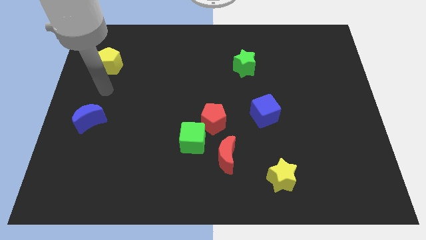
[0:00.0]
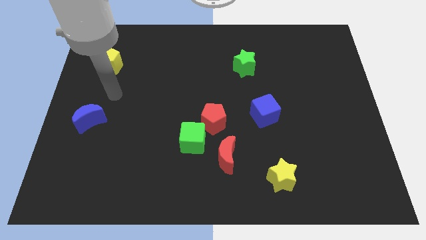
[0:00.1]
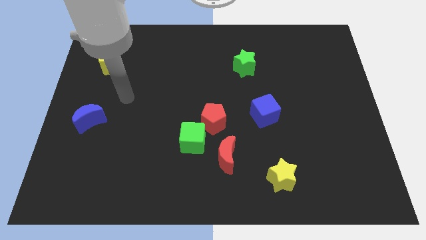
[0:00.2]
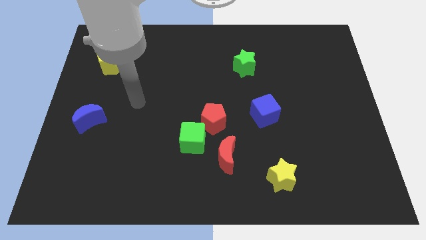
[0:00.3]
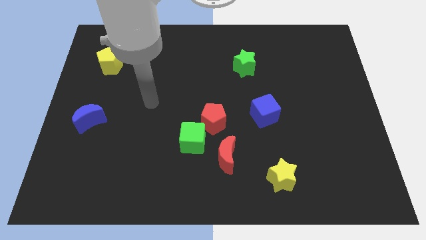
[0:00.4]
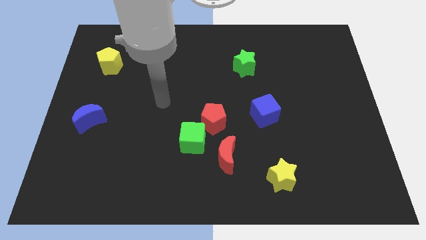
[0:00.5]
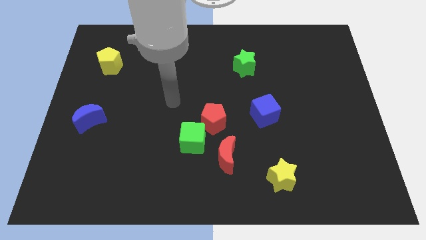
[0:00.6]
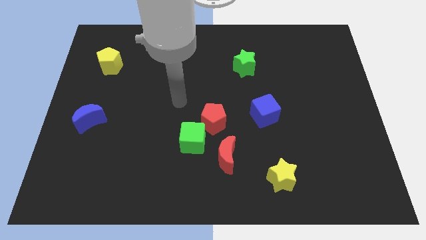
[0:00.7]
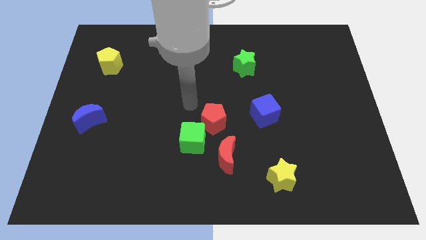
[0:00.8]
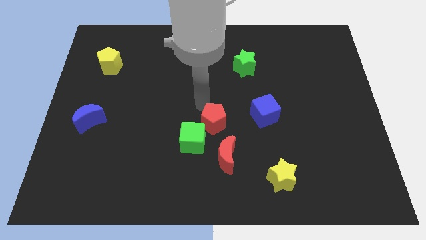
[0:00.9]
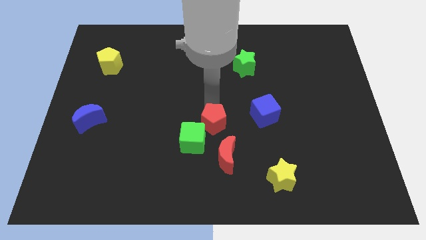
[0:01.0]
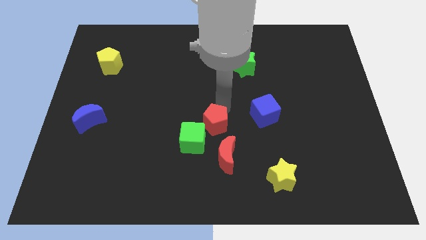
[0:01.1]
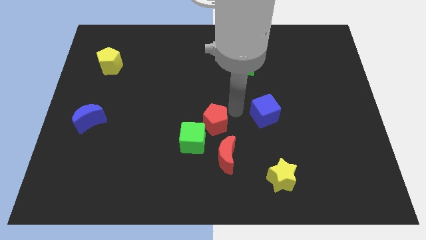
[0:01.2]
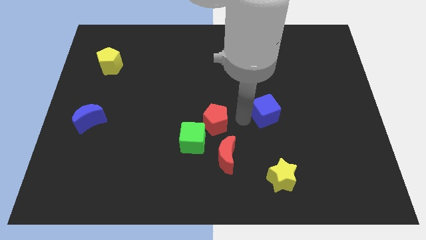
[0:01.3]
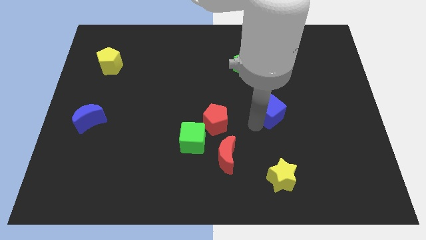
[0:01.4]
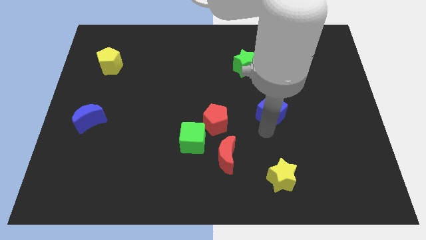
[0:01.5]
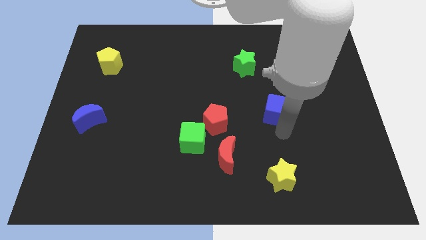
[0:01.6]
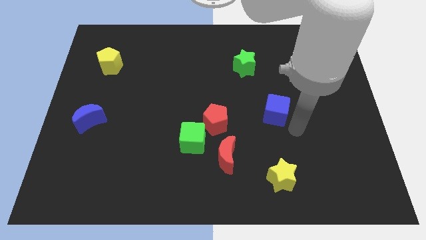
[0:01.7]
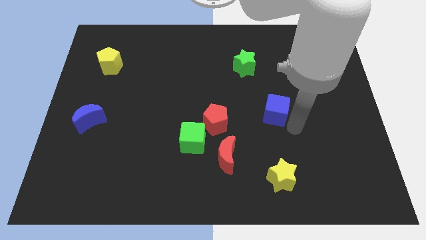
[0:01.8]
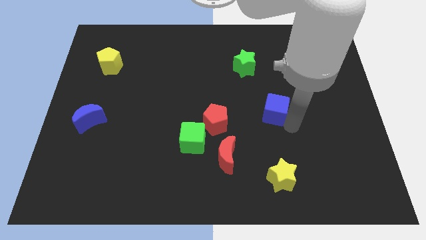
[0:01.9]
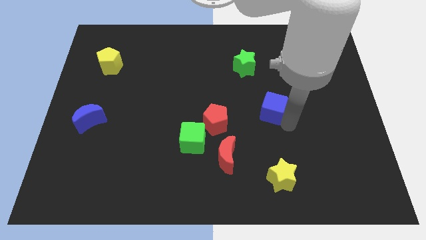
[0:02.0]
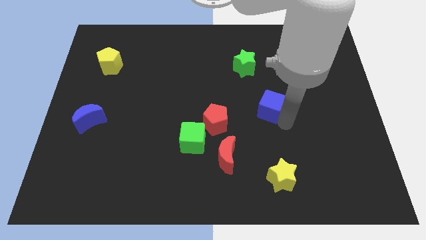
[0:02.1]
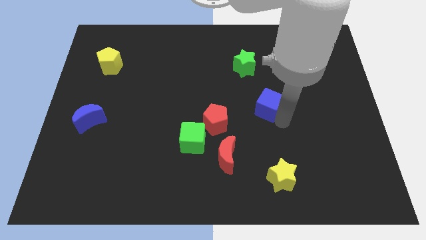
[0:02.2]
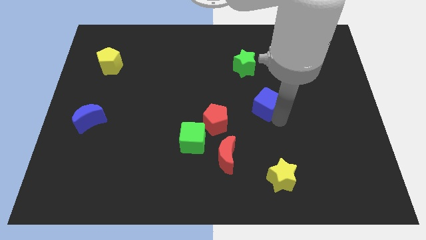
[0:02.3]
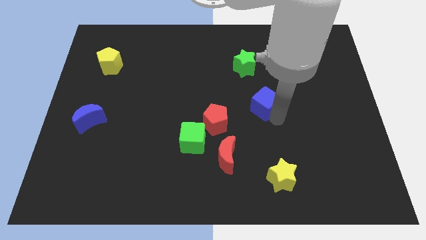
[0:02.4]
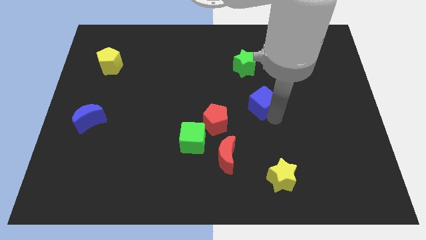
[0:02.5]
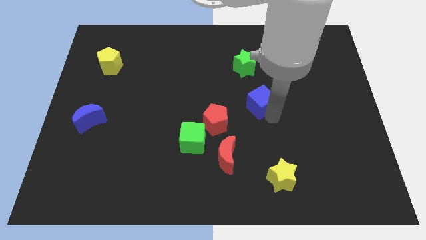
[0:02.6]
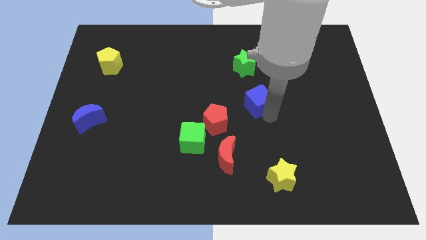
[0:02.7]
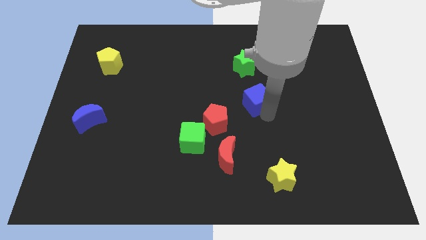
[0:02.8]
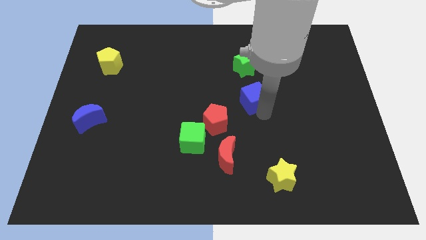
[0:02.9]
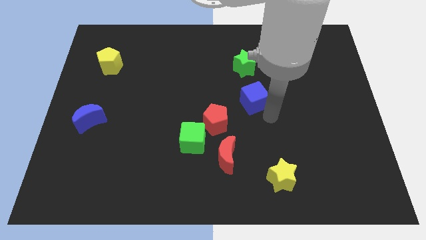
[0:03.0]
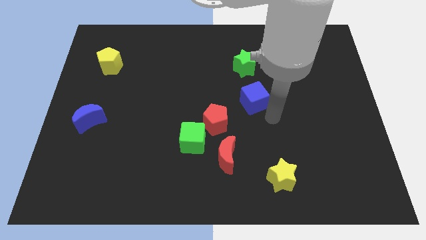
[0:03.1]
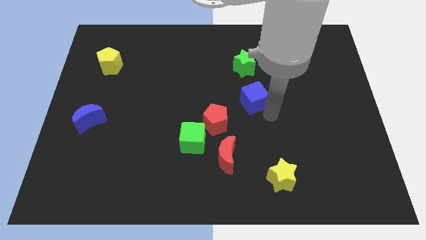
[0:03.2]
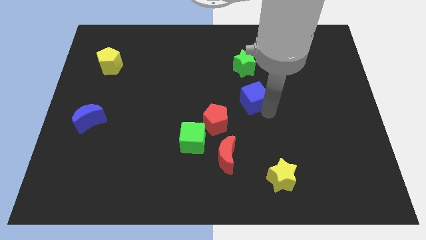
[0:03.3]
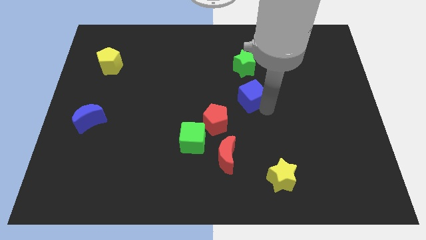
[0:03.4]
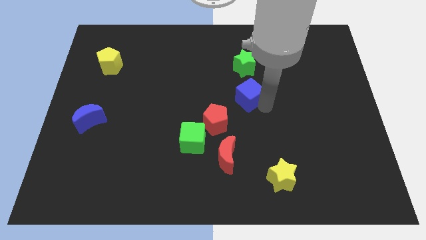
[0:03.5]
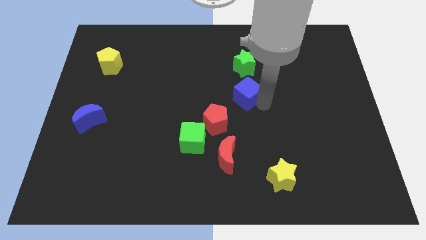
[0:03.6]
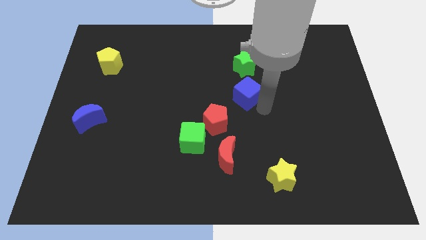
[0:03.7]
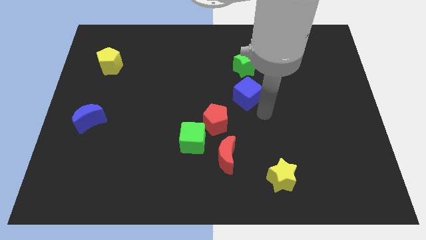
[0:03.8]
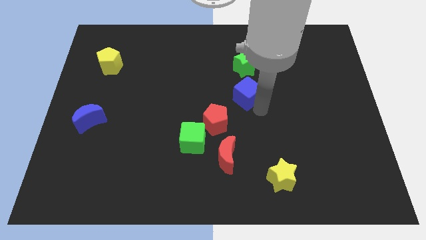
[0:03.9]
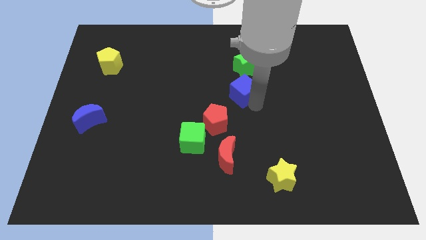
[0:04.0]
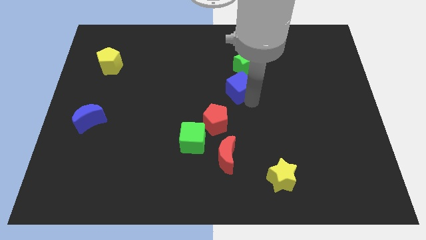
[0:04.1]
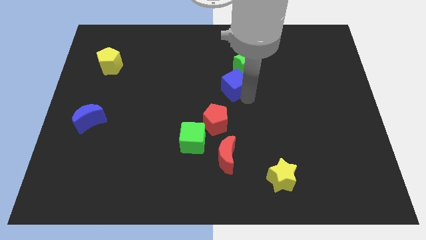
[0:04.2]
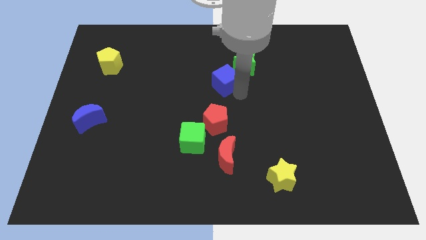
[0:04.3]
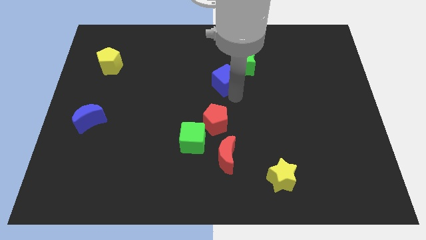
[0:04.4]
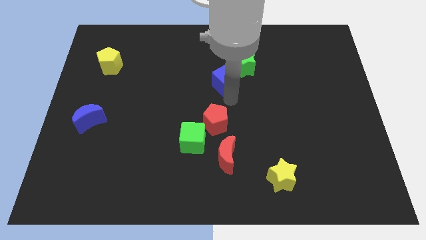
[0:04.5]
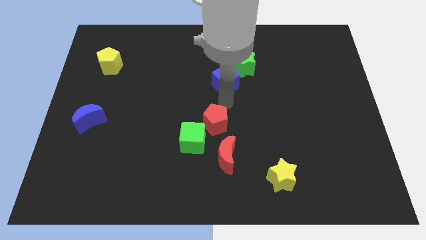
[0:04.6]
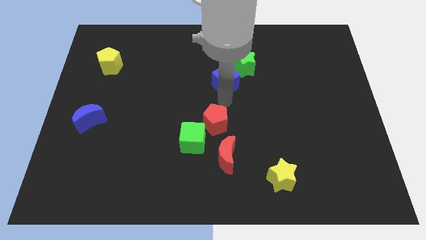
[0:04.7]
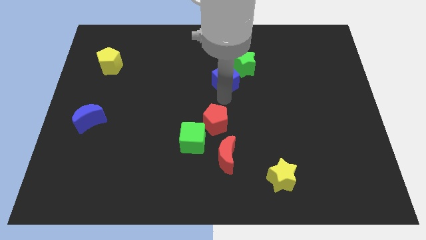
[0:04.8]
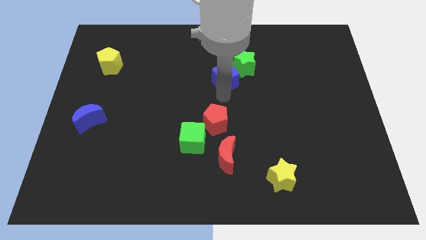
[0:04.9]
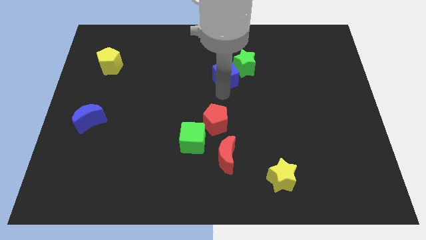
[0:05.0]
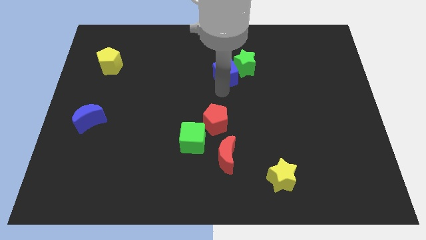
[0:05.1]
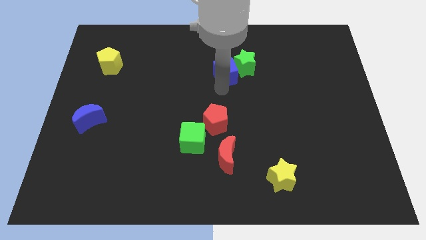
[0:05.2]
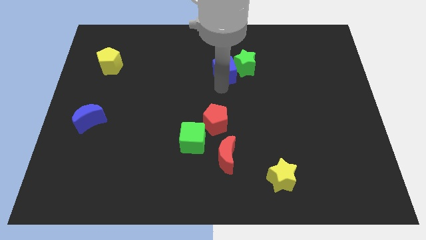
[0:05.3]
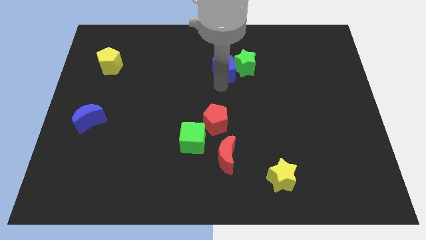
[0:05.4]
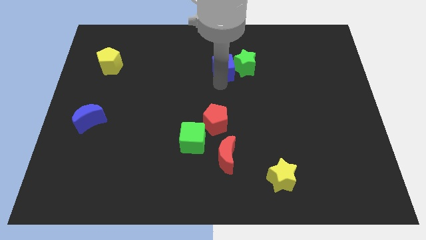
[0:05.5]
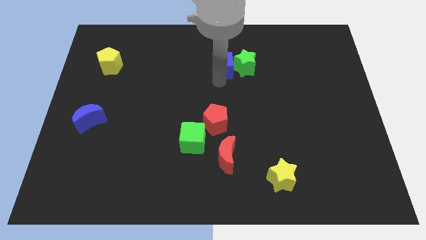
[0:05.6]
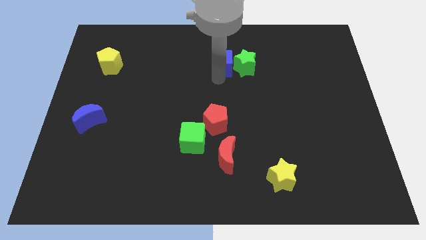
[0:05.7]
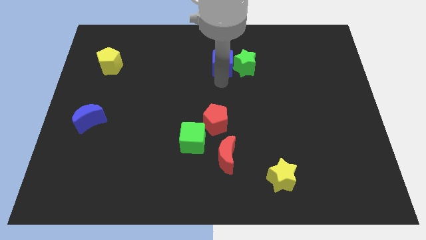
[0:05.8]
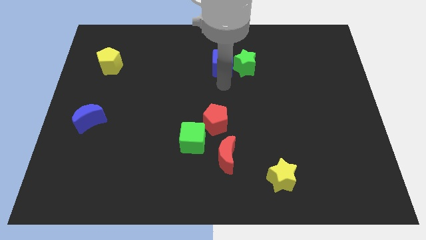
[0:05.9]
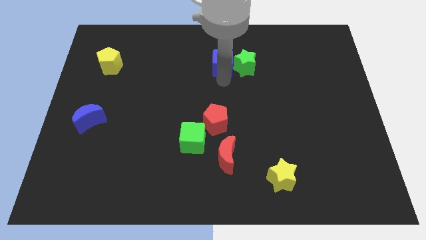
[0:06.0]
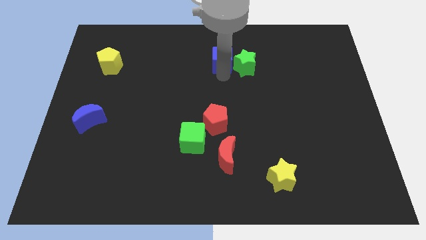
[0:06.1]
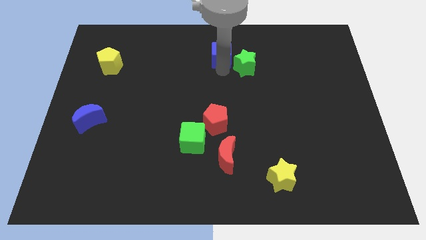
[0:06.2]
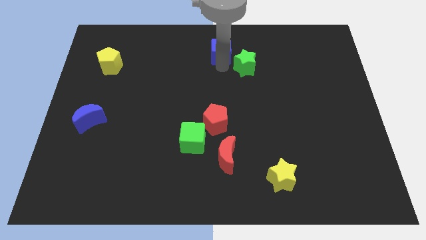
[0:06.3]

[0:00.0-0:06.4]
push the blue cube to the towards your base
